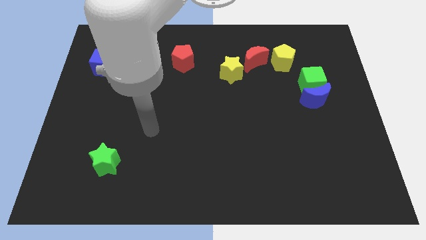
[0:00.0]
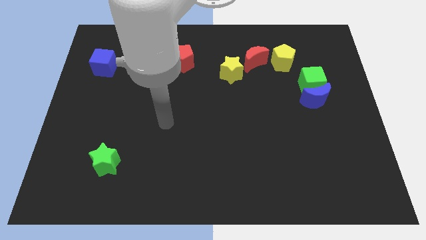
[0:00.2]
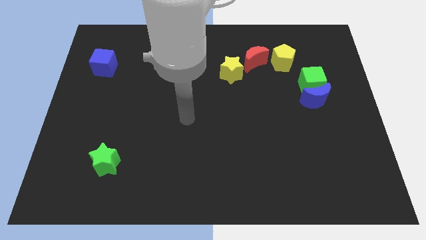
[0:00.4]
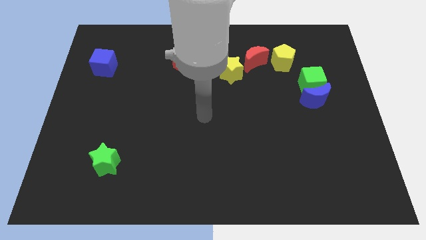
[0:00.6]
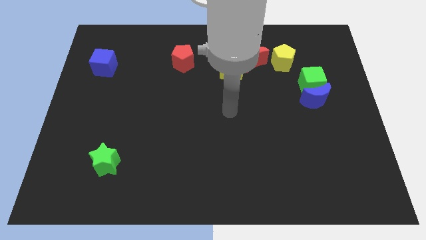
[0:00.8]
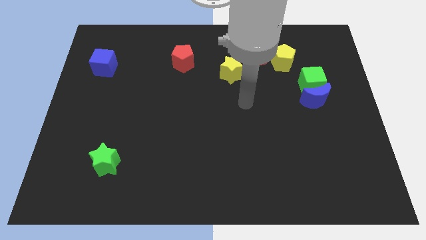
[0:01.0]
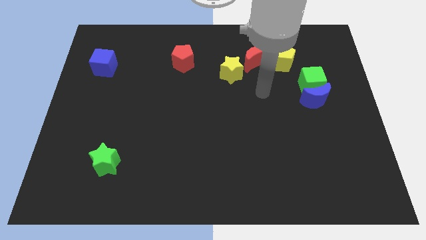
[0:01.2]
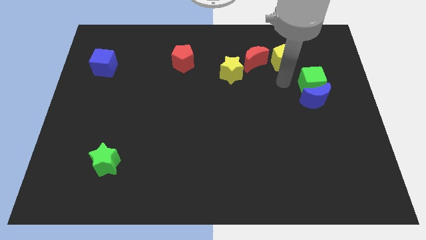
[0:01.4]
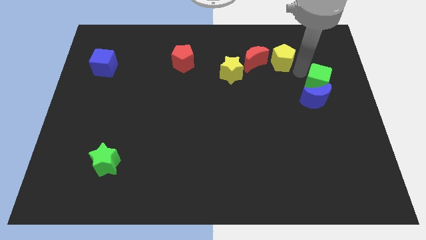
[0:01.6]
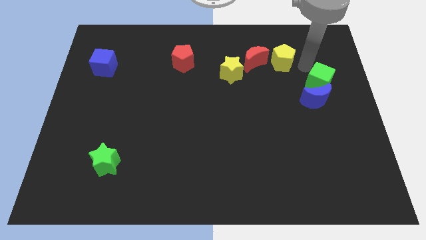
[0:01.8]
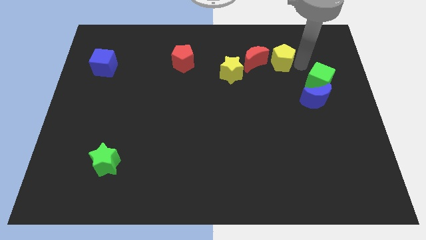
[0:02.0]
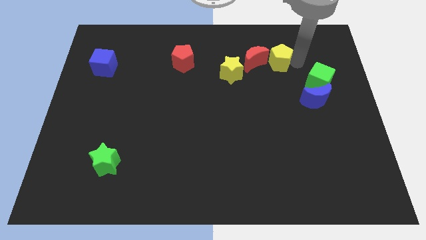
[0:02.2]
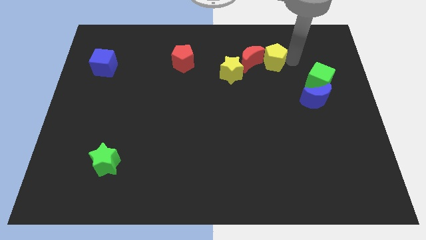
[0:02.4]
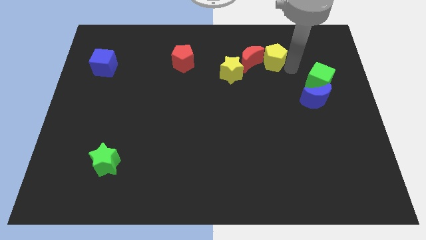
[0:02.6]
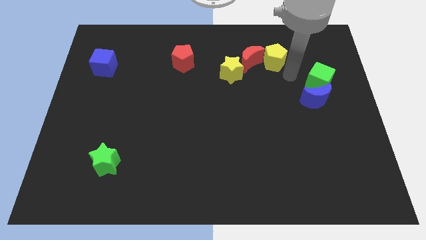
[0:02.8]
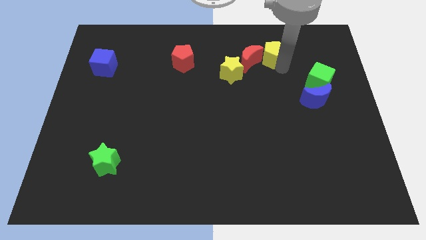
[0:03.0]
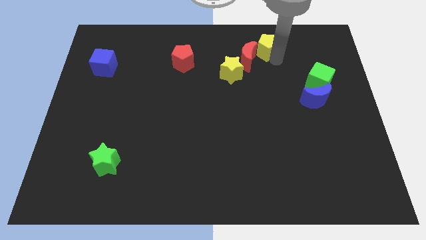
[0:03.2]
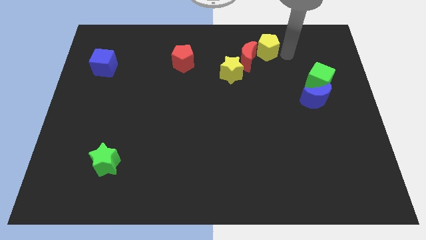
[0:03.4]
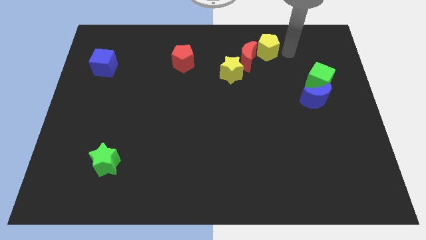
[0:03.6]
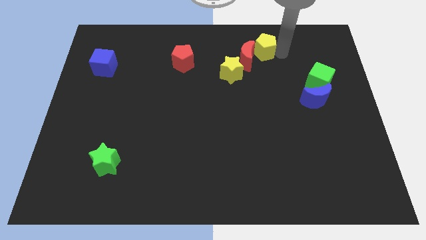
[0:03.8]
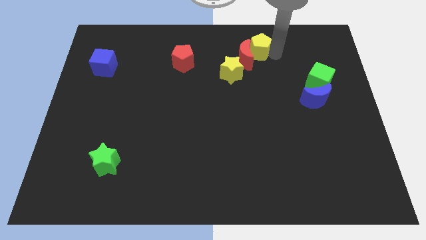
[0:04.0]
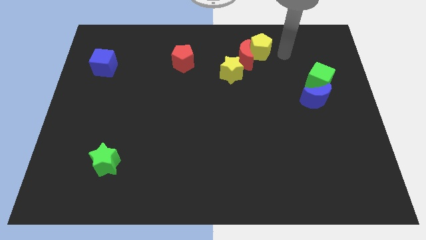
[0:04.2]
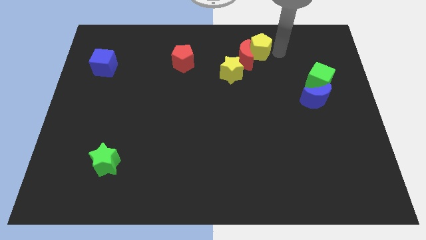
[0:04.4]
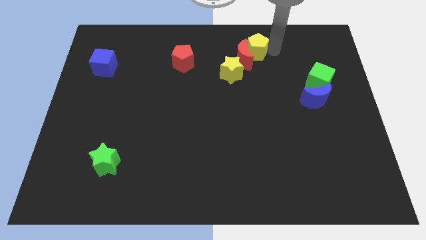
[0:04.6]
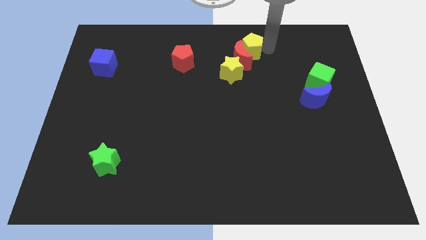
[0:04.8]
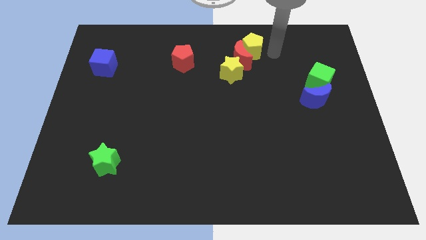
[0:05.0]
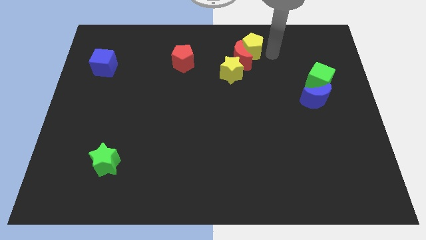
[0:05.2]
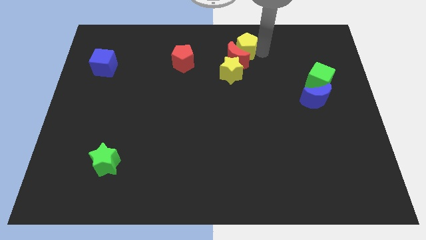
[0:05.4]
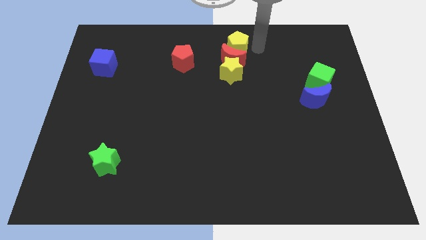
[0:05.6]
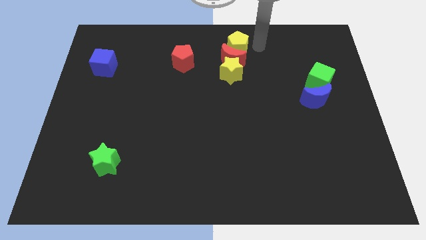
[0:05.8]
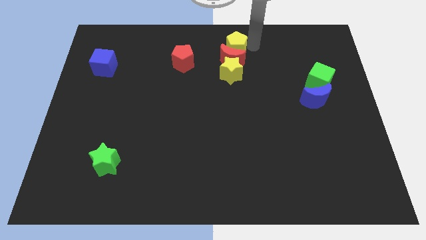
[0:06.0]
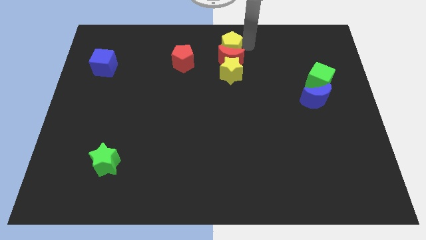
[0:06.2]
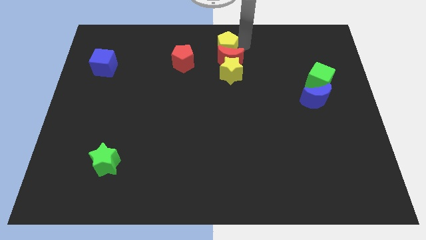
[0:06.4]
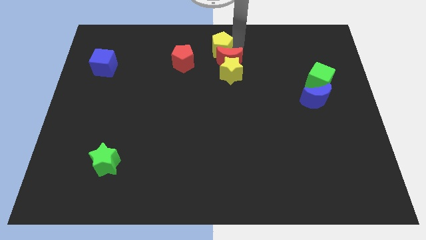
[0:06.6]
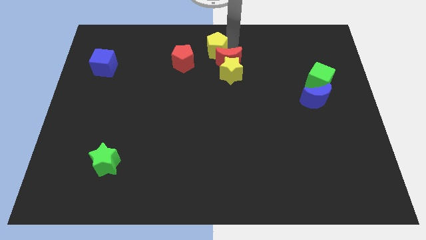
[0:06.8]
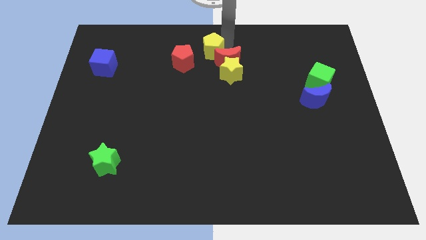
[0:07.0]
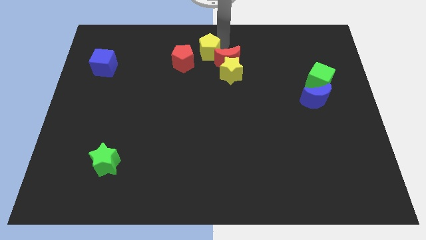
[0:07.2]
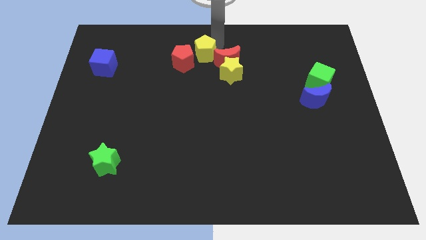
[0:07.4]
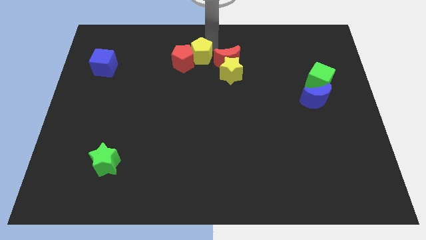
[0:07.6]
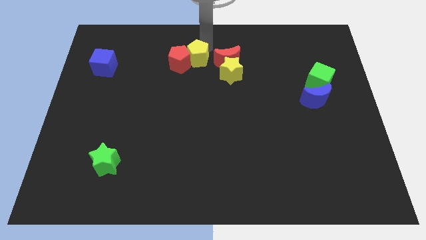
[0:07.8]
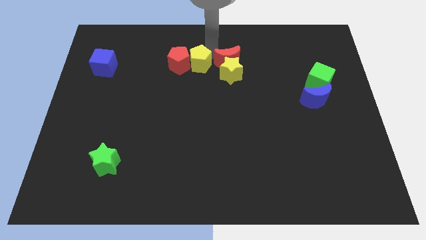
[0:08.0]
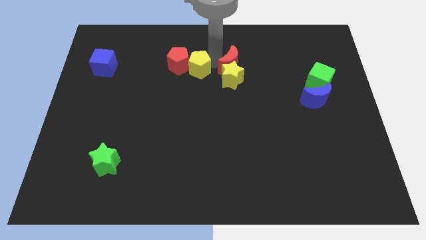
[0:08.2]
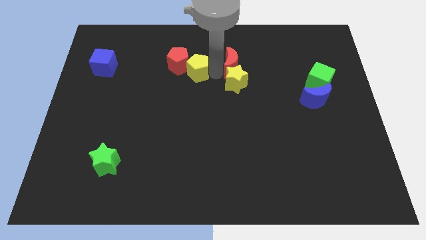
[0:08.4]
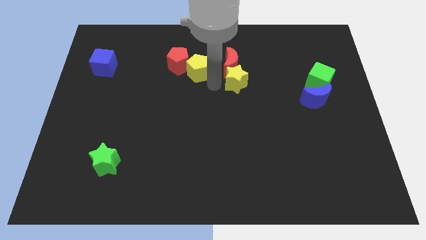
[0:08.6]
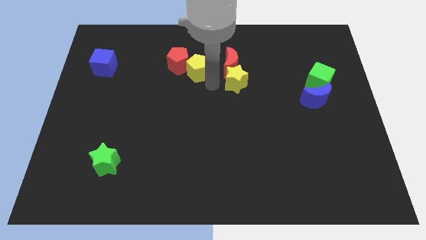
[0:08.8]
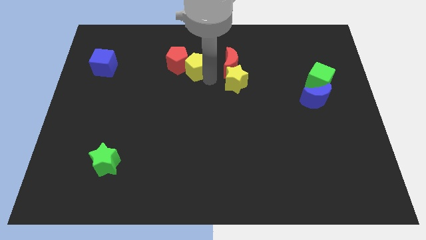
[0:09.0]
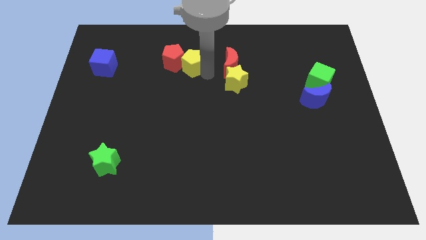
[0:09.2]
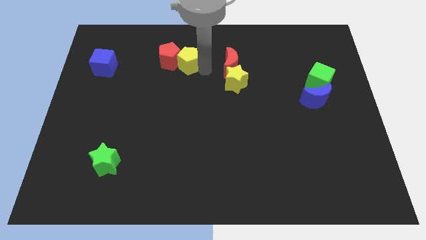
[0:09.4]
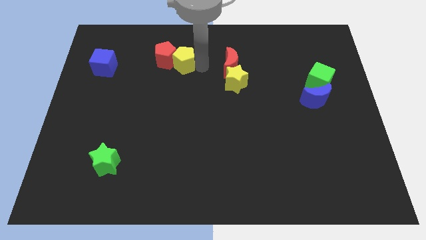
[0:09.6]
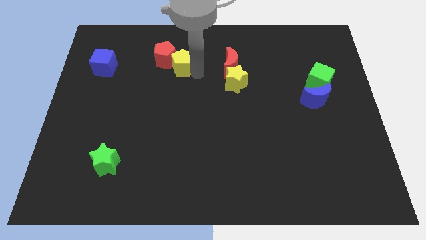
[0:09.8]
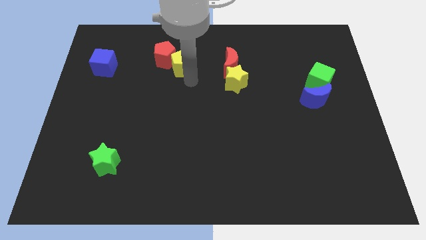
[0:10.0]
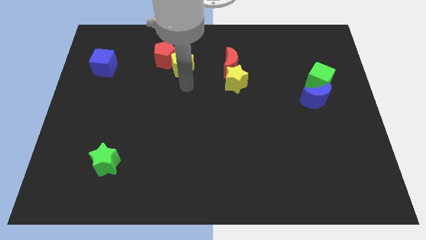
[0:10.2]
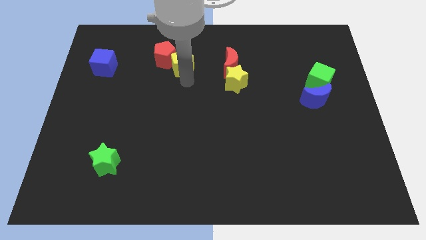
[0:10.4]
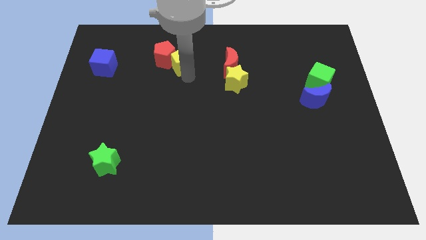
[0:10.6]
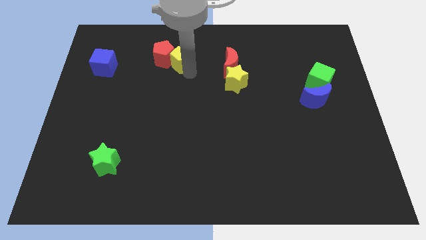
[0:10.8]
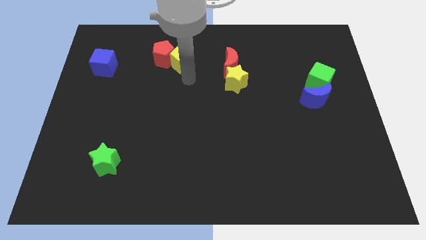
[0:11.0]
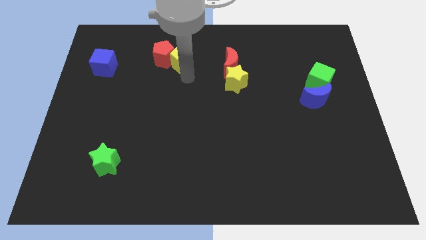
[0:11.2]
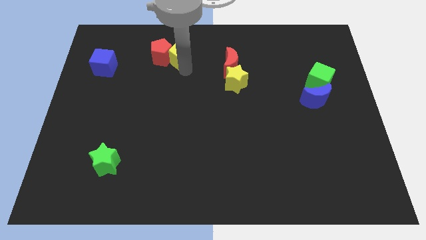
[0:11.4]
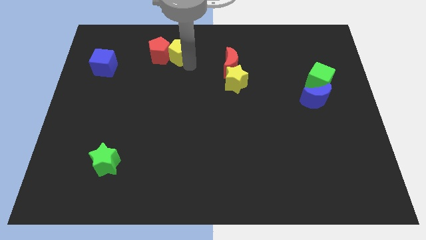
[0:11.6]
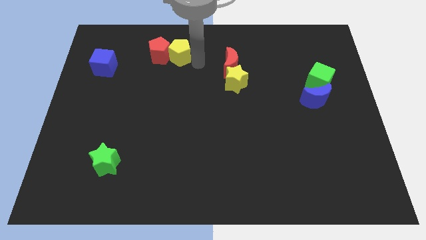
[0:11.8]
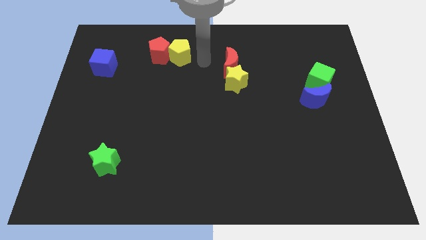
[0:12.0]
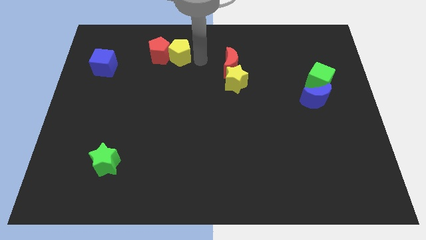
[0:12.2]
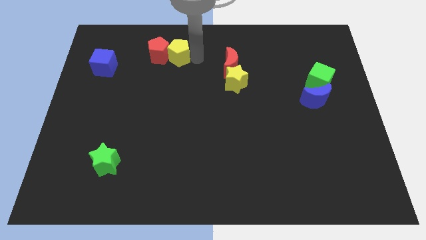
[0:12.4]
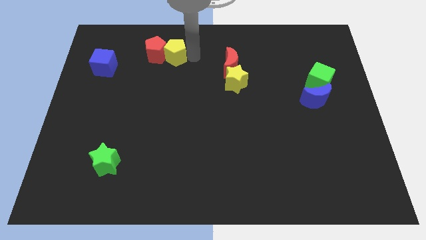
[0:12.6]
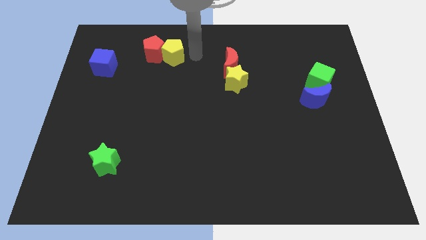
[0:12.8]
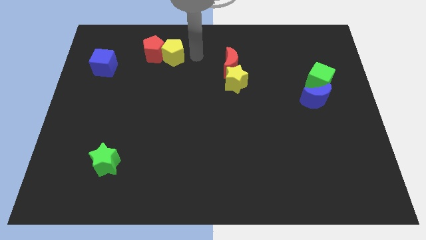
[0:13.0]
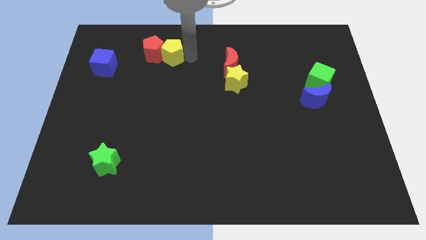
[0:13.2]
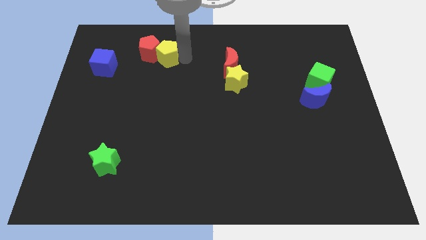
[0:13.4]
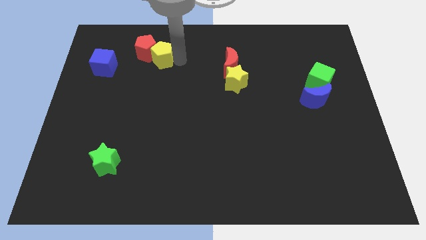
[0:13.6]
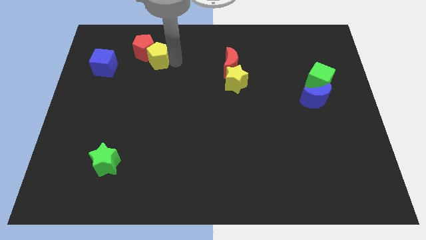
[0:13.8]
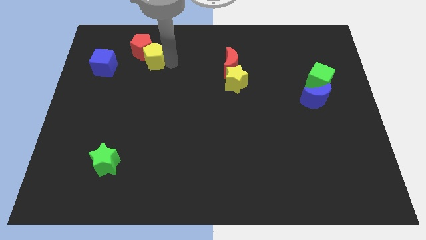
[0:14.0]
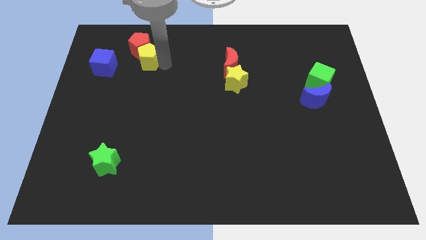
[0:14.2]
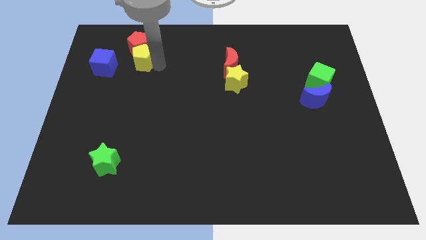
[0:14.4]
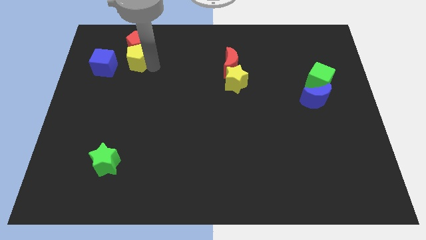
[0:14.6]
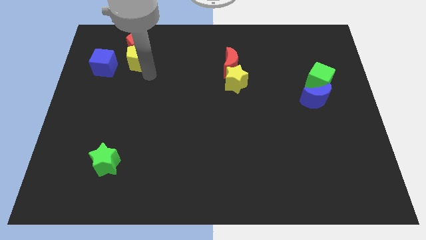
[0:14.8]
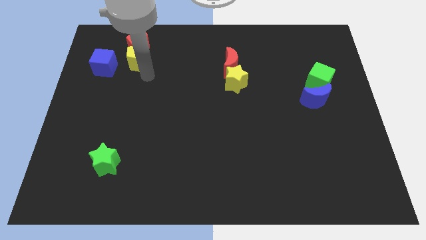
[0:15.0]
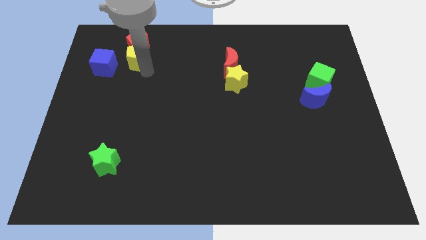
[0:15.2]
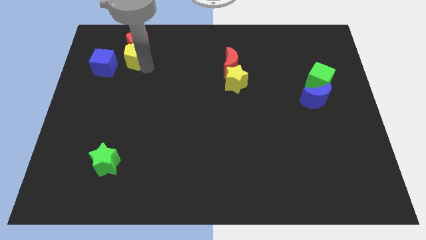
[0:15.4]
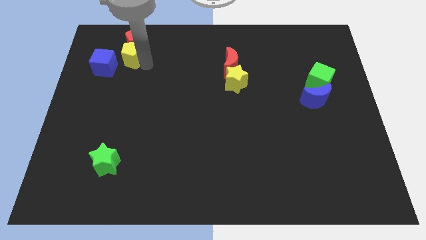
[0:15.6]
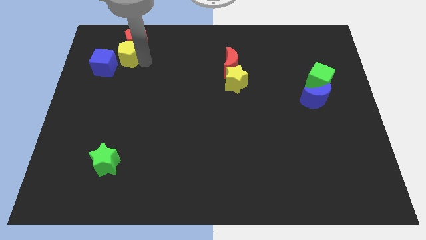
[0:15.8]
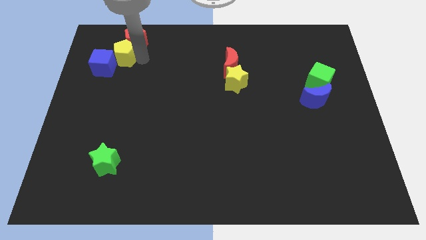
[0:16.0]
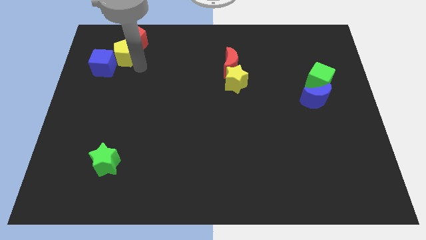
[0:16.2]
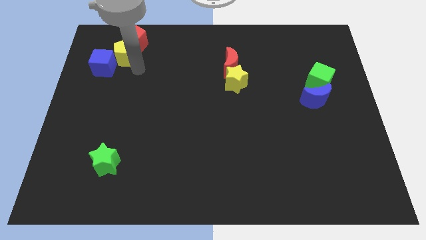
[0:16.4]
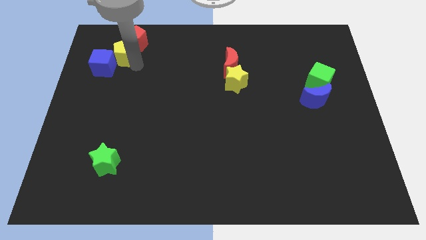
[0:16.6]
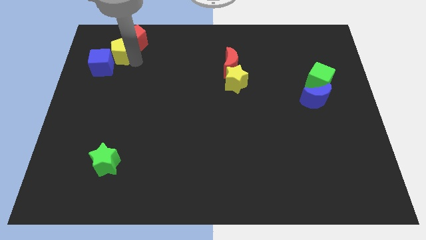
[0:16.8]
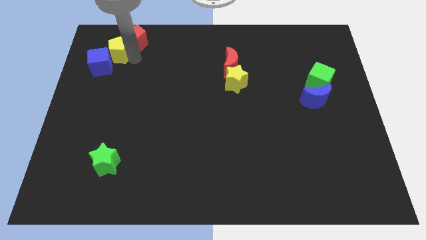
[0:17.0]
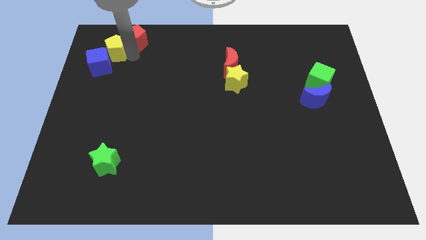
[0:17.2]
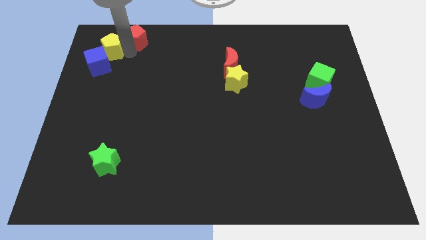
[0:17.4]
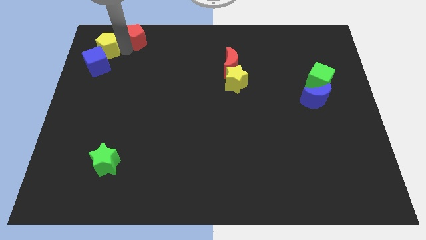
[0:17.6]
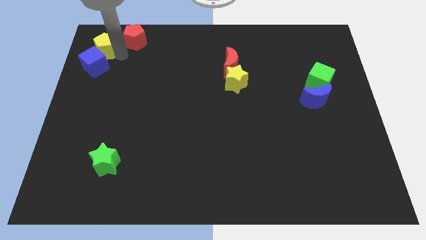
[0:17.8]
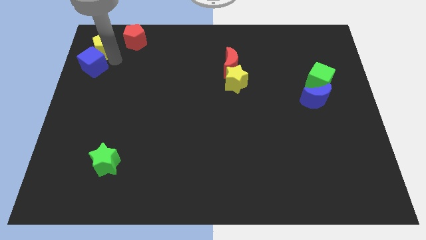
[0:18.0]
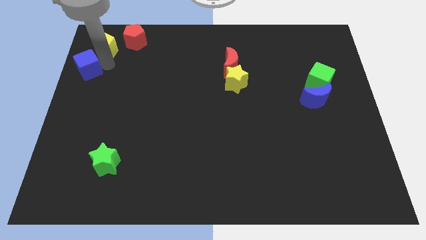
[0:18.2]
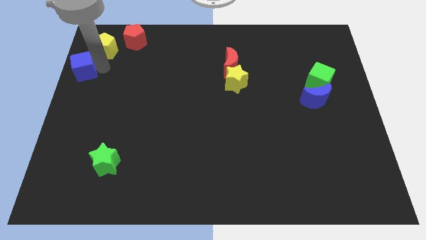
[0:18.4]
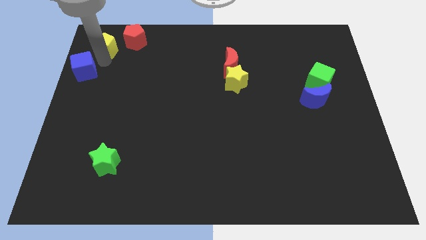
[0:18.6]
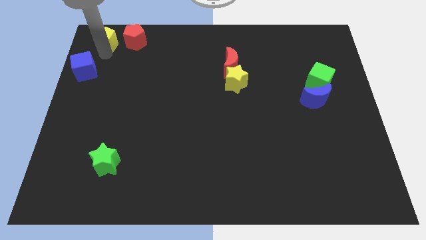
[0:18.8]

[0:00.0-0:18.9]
put the yellow pentagon to the top left
